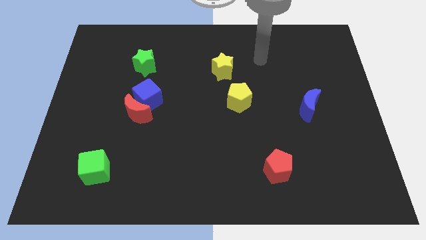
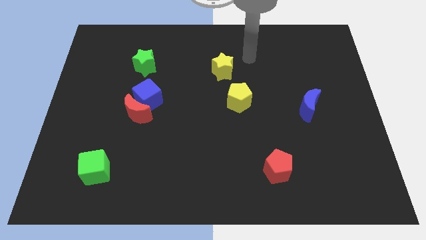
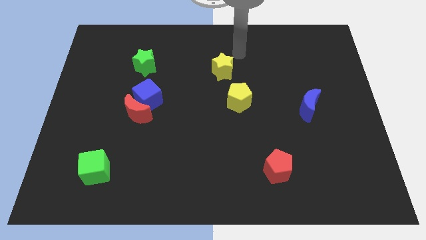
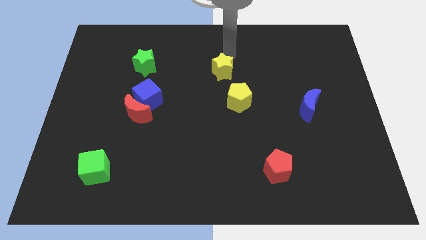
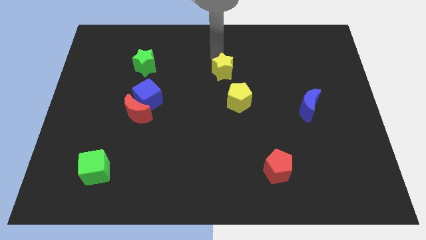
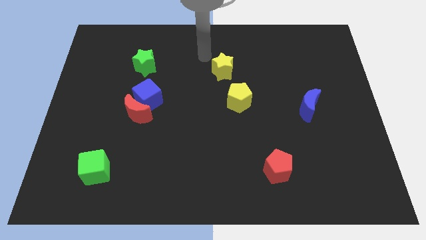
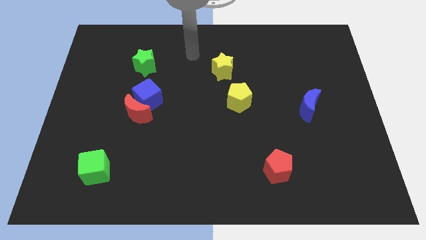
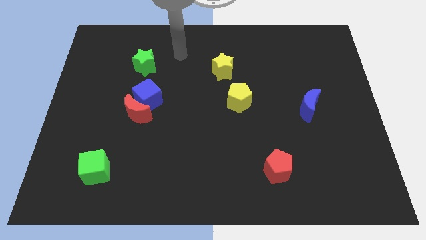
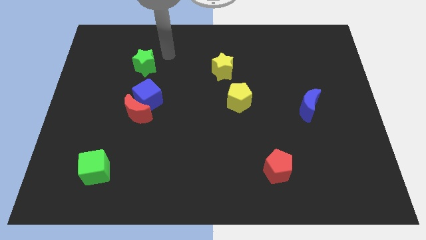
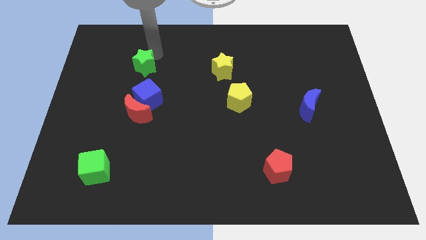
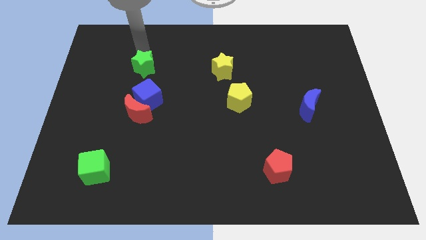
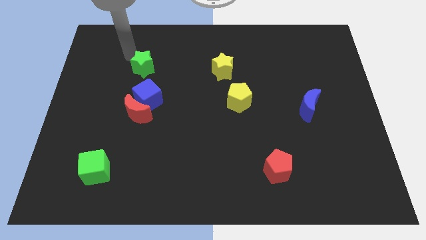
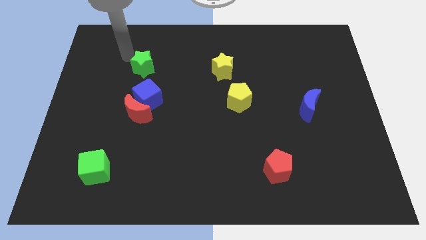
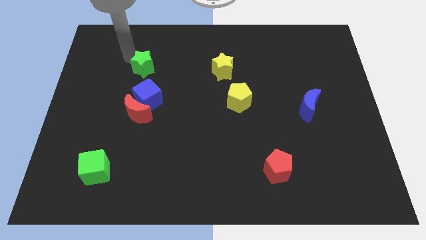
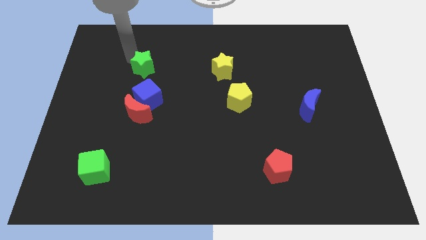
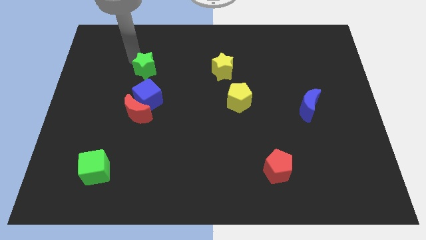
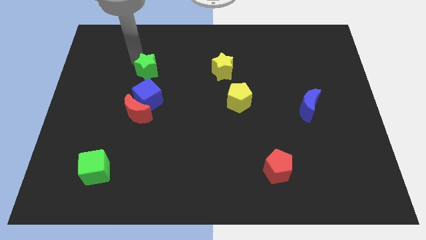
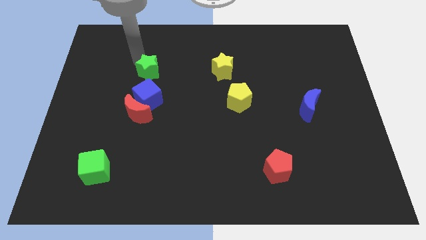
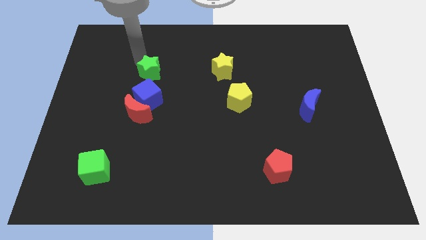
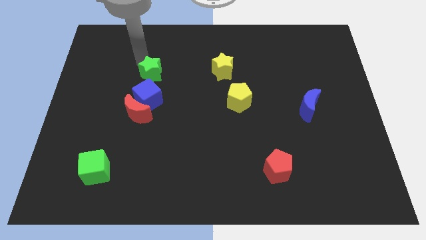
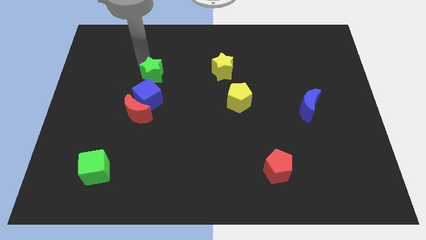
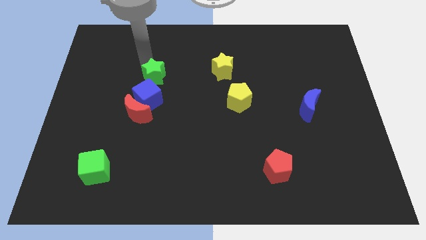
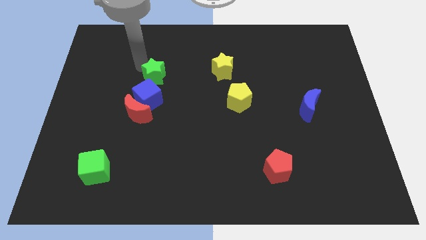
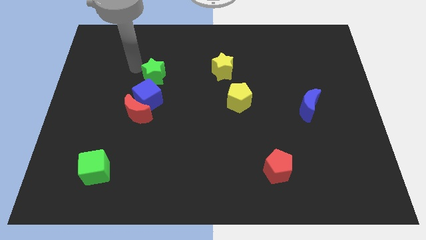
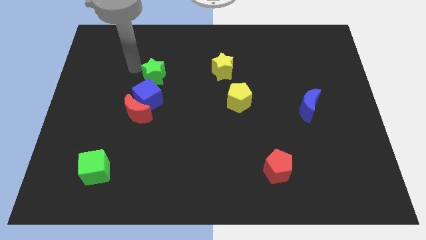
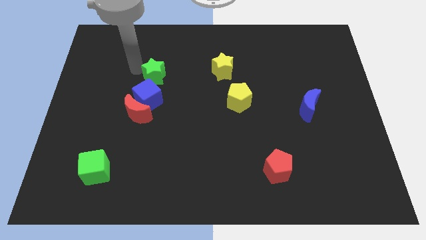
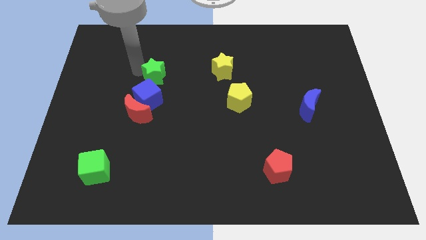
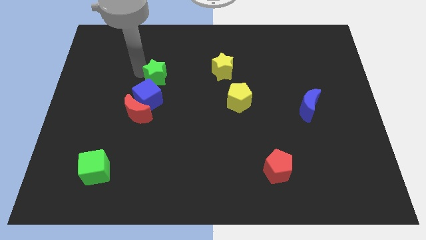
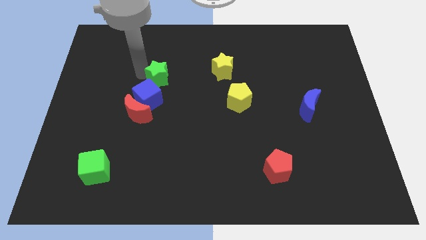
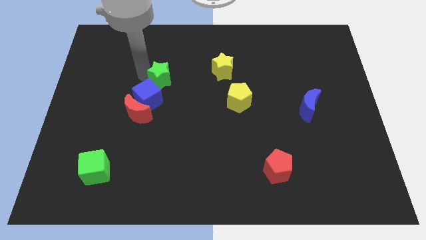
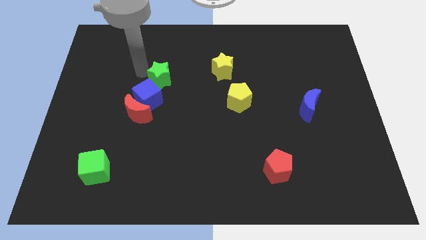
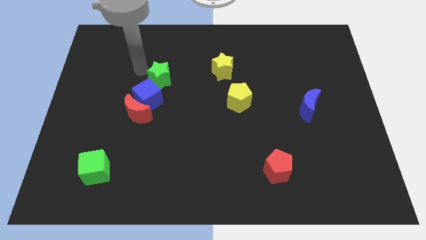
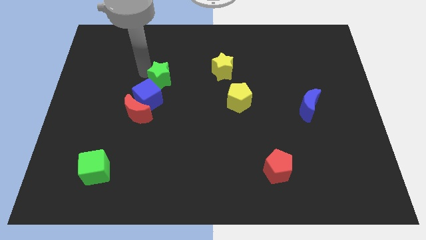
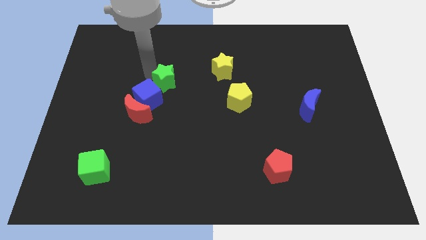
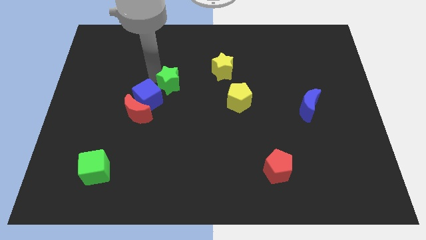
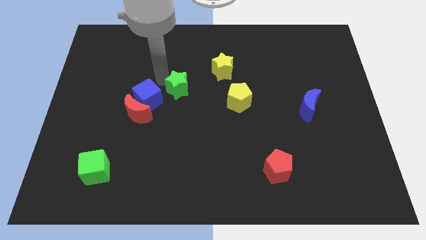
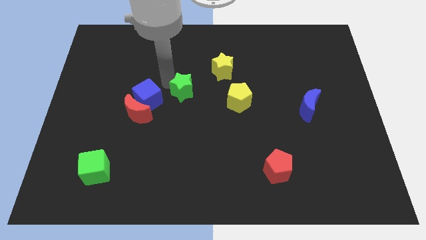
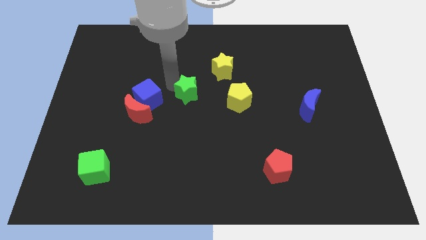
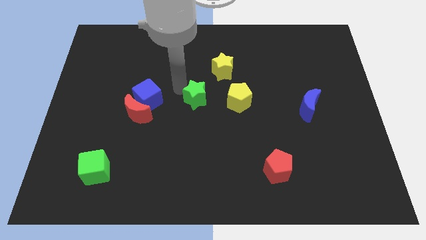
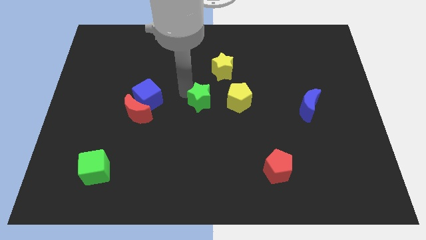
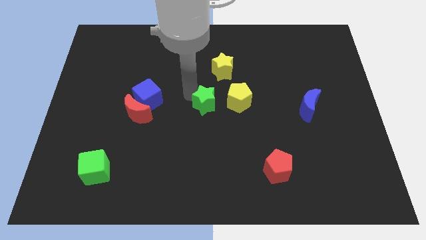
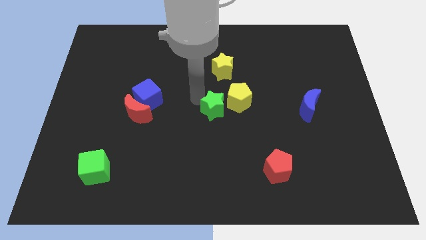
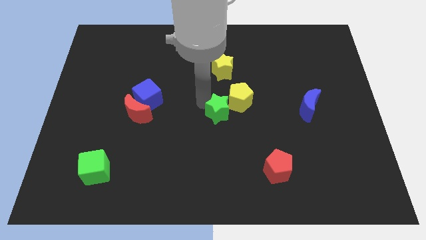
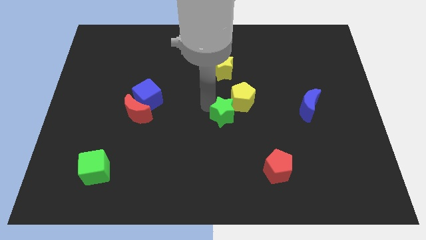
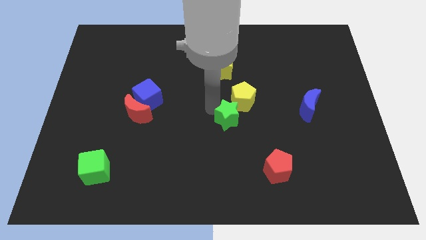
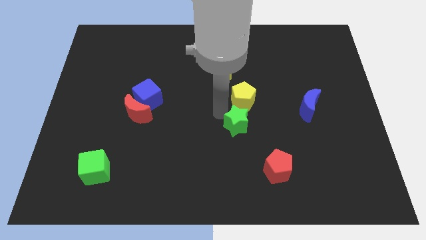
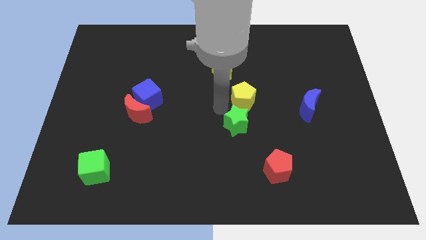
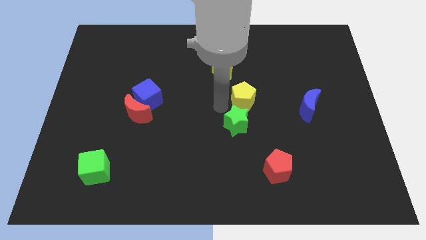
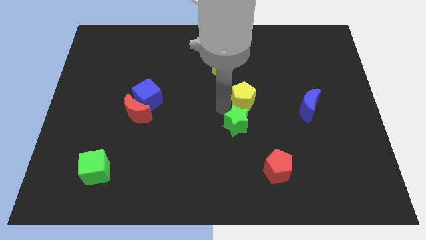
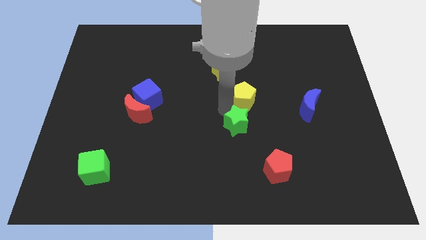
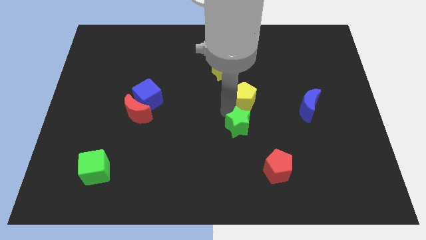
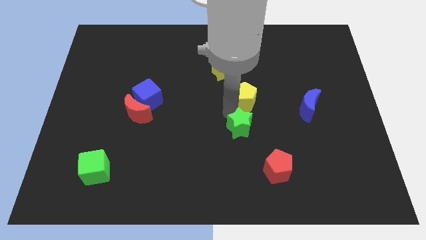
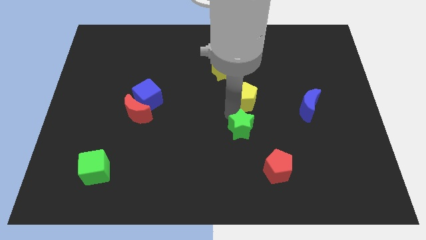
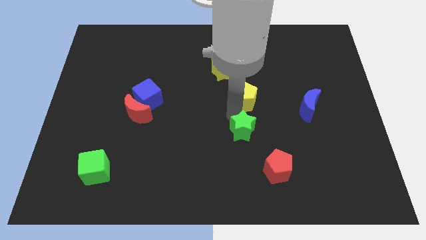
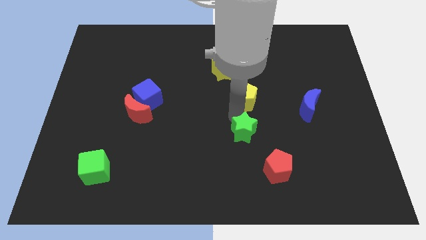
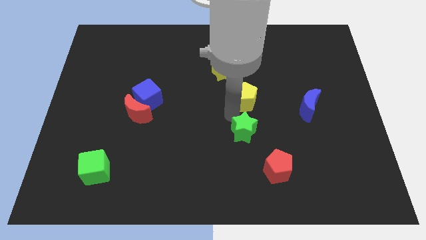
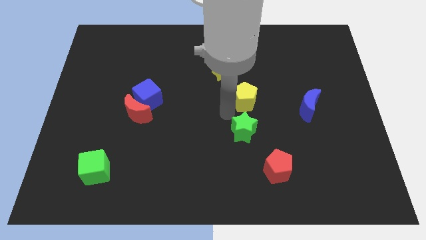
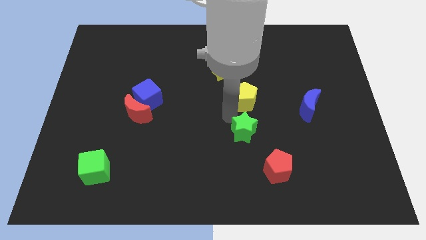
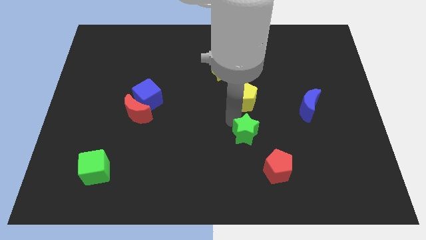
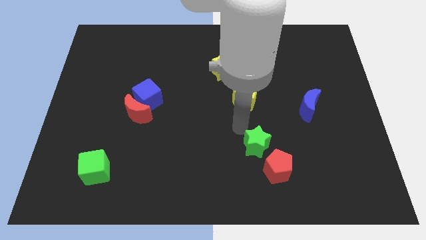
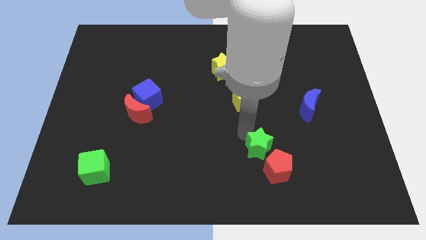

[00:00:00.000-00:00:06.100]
put the green star to the red pentagon

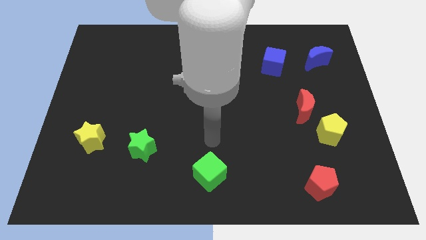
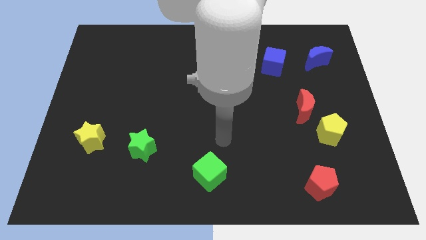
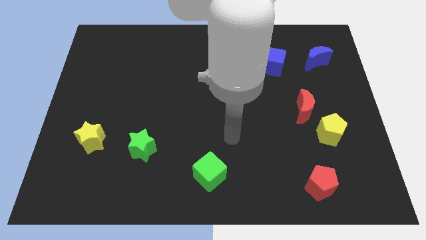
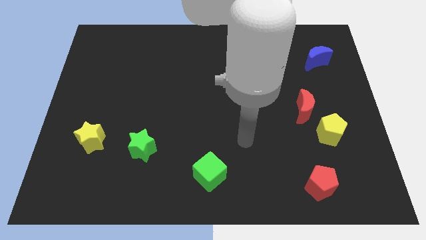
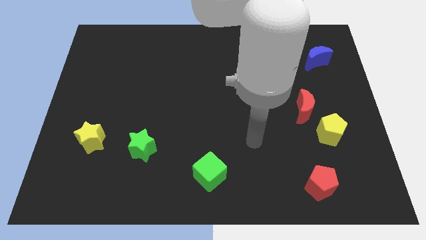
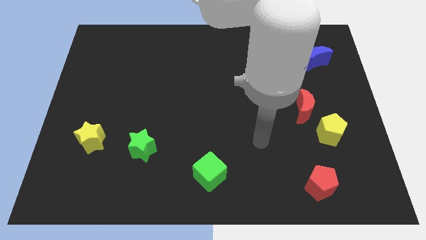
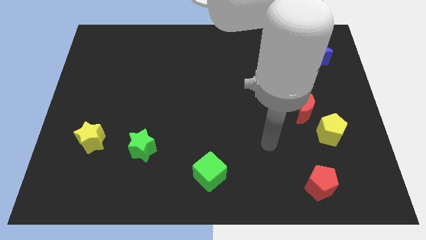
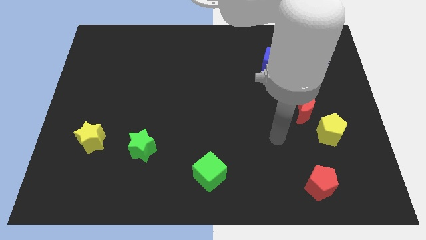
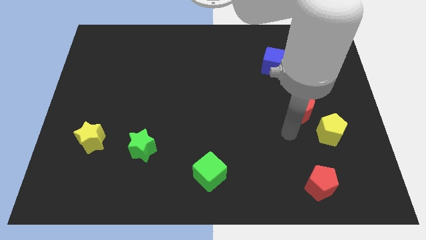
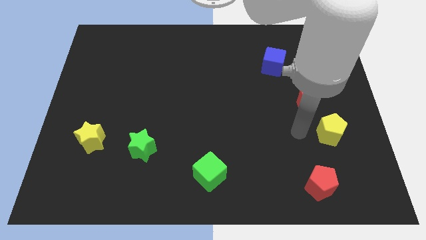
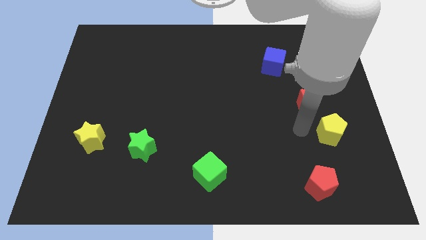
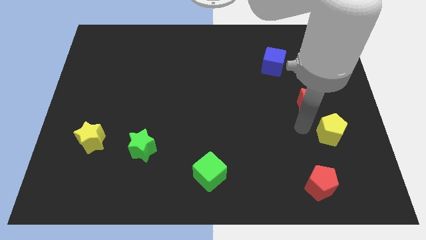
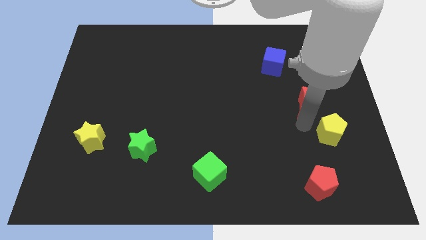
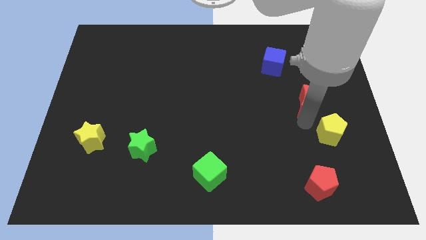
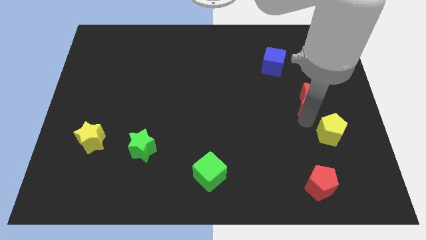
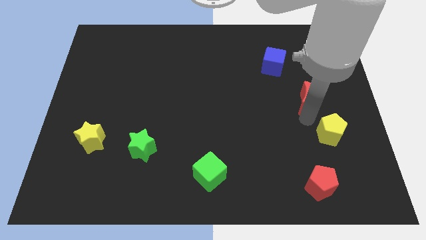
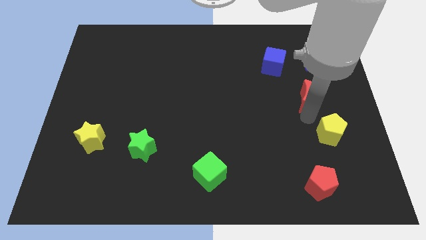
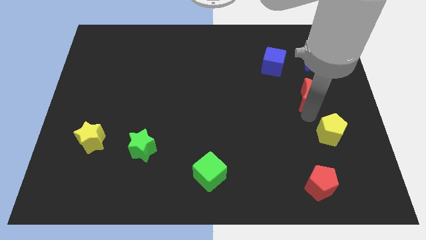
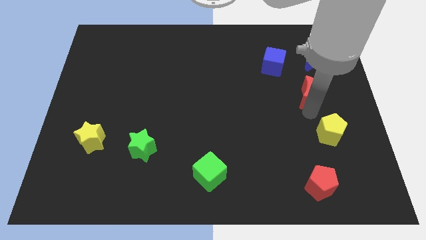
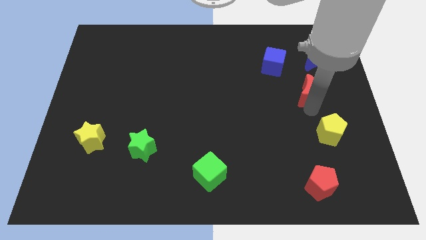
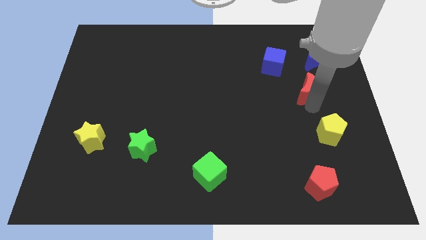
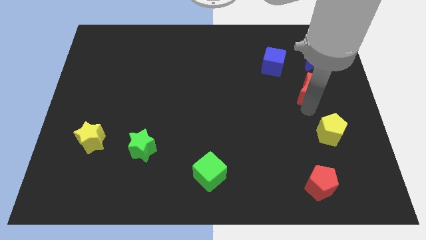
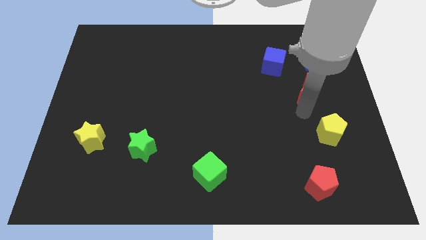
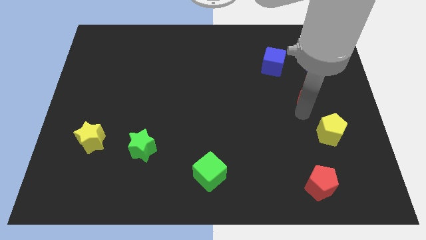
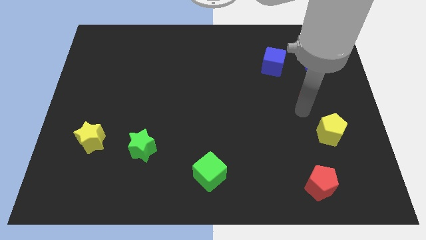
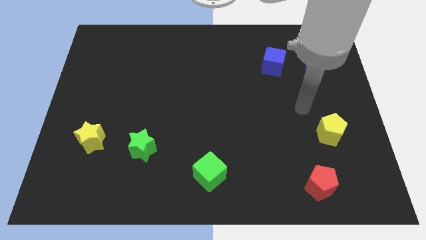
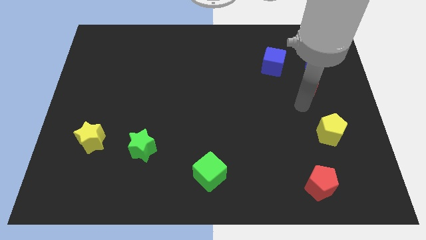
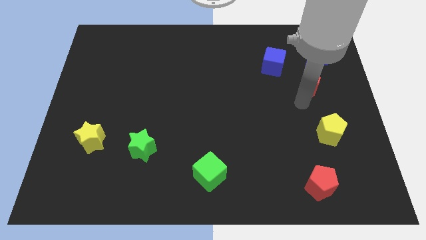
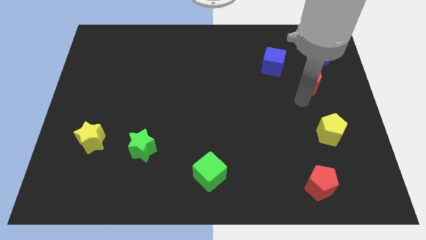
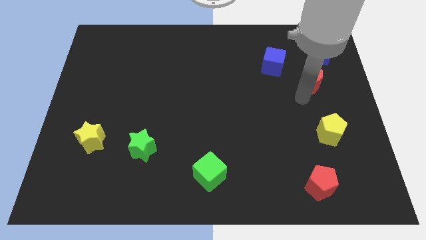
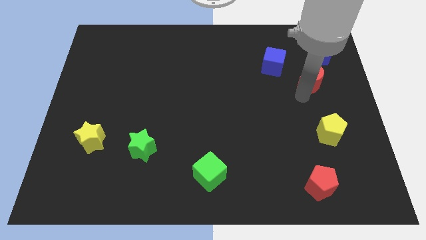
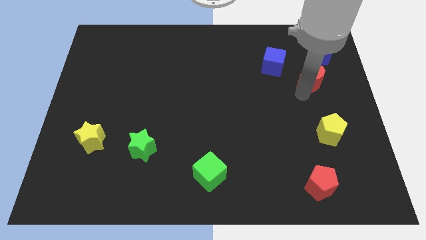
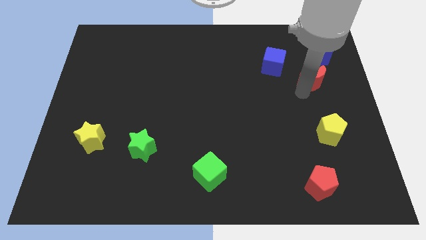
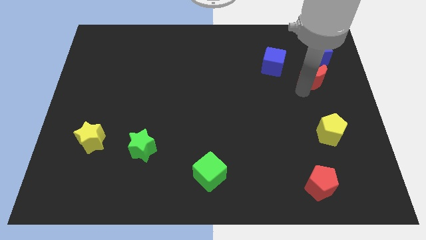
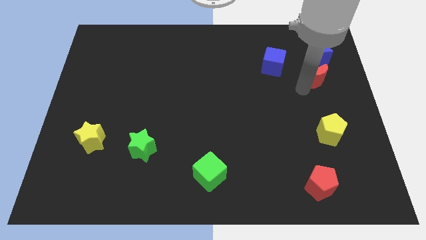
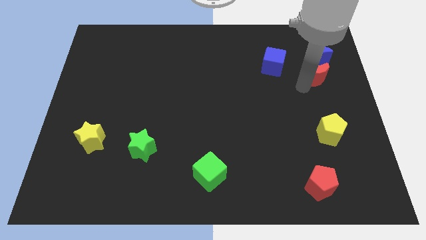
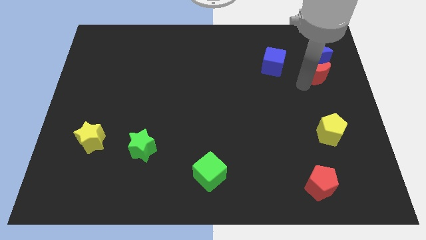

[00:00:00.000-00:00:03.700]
push the red moon close to the blue moon
